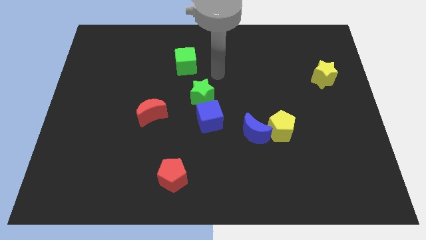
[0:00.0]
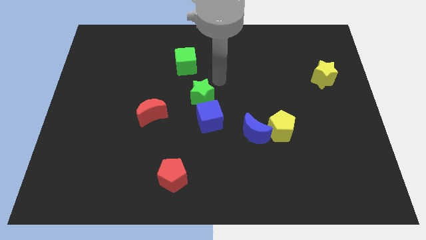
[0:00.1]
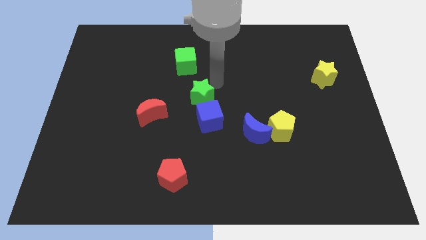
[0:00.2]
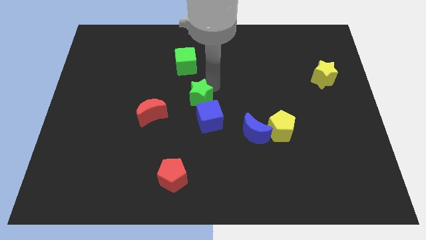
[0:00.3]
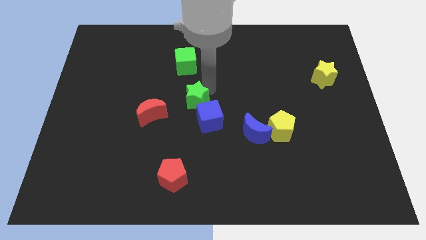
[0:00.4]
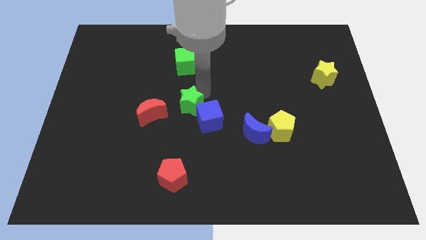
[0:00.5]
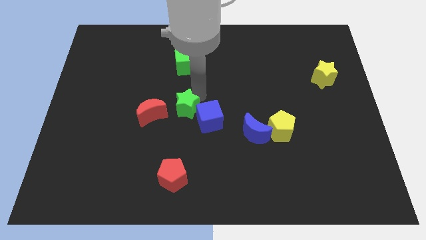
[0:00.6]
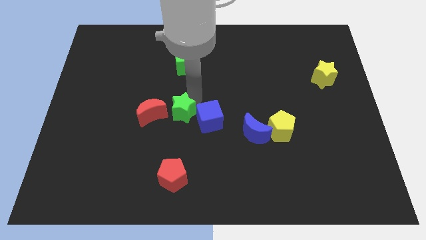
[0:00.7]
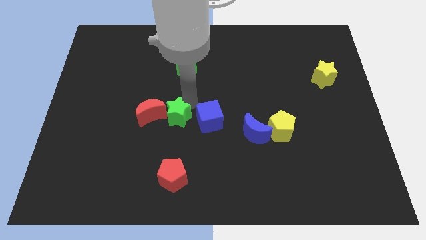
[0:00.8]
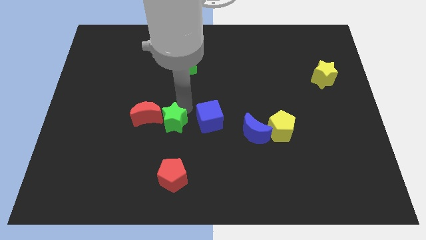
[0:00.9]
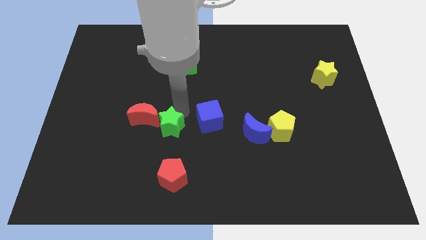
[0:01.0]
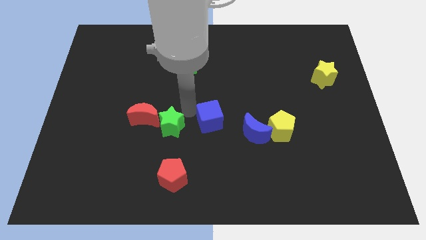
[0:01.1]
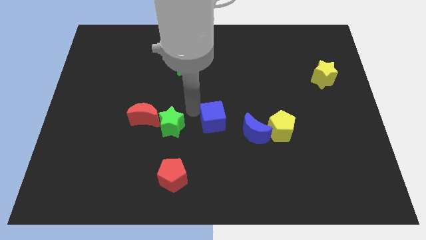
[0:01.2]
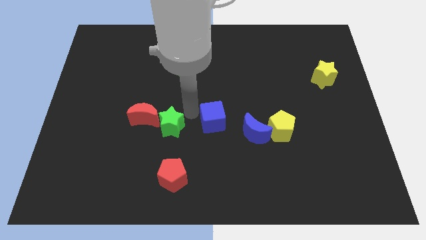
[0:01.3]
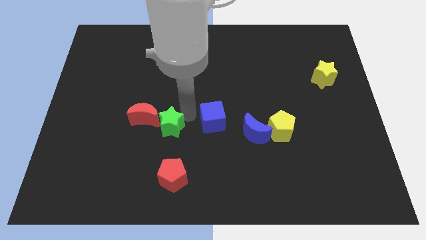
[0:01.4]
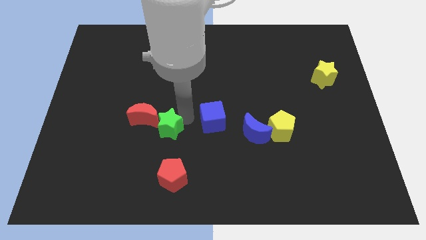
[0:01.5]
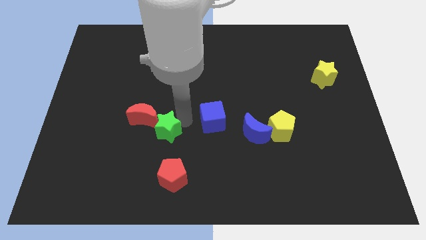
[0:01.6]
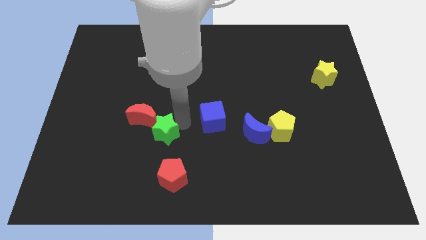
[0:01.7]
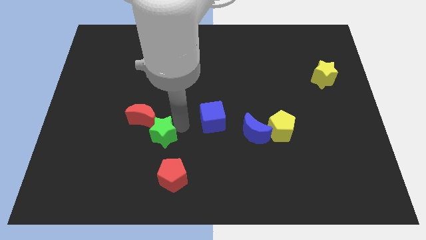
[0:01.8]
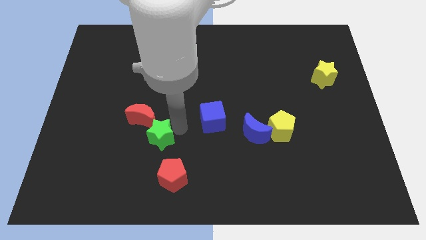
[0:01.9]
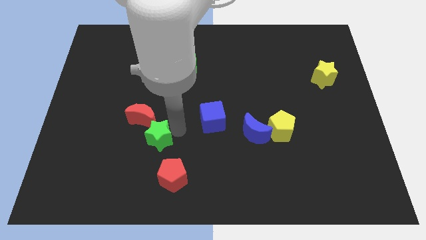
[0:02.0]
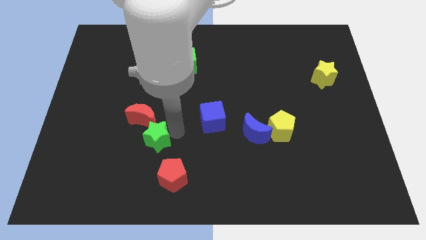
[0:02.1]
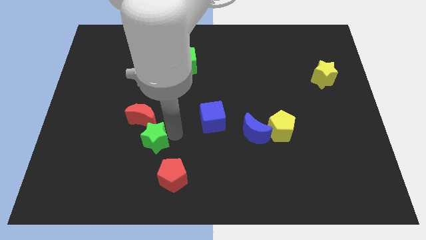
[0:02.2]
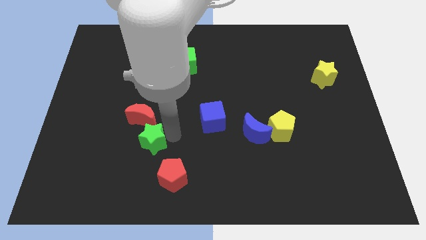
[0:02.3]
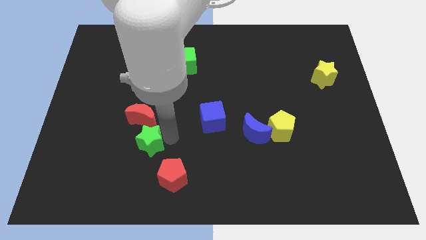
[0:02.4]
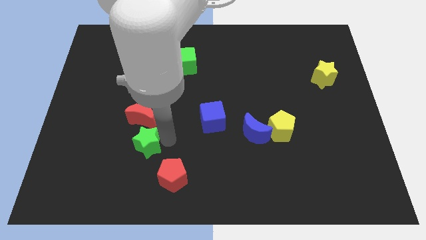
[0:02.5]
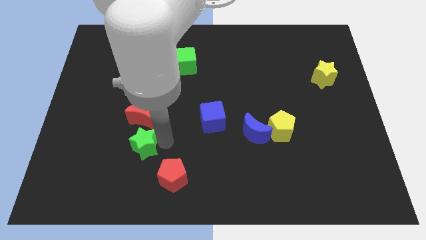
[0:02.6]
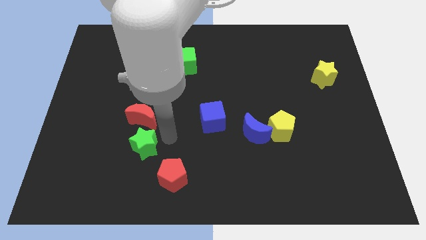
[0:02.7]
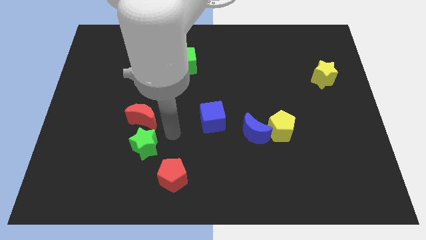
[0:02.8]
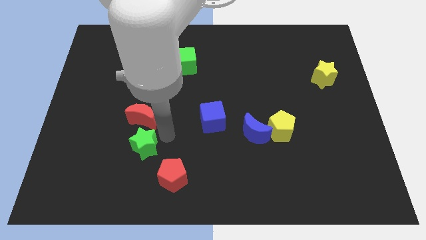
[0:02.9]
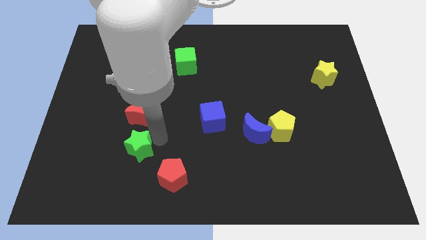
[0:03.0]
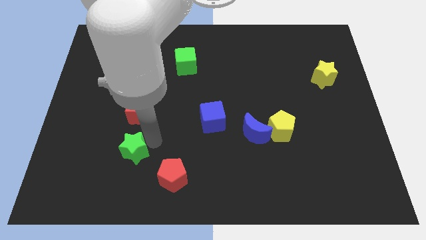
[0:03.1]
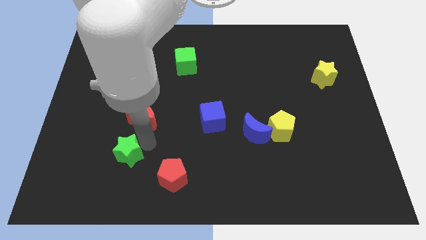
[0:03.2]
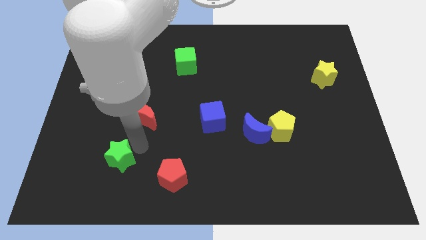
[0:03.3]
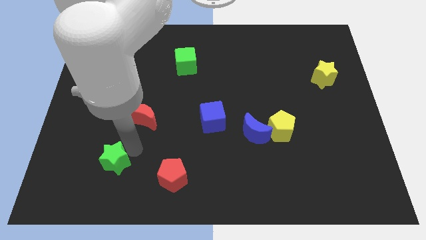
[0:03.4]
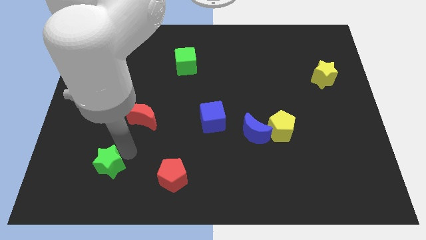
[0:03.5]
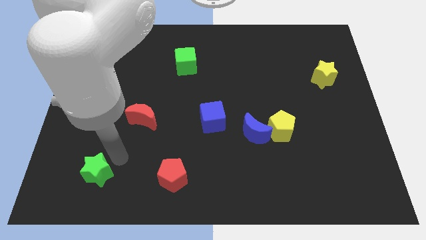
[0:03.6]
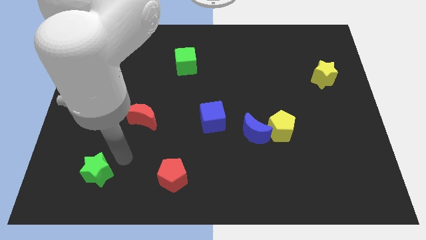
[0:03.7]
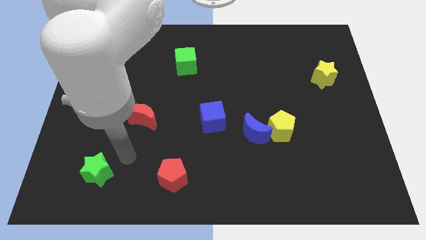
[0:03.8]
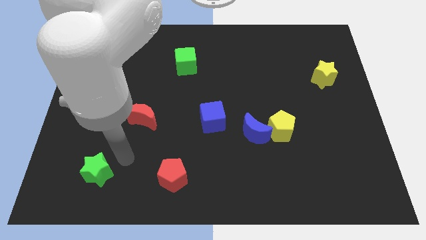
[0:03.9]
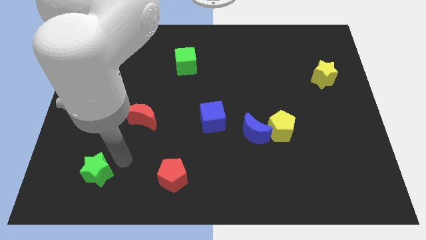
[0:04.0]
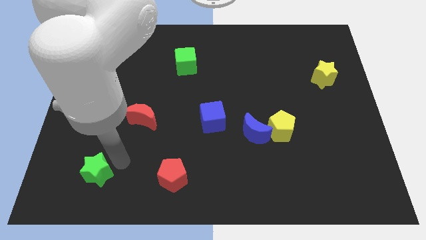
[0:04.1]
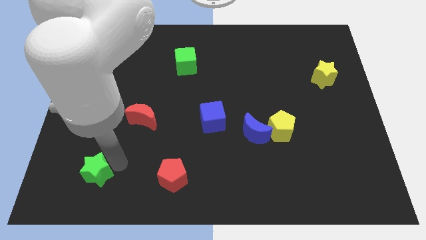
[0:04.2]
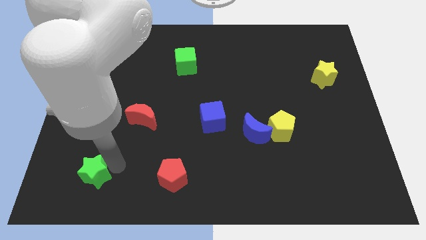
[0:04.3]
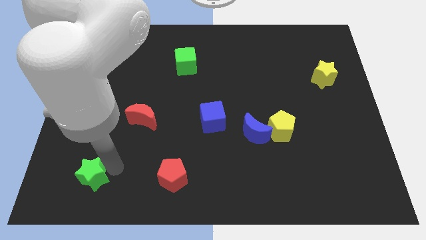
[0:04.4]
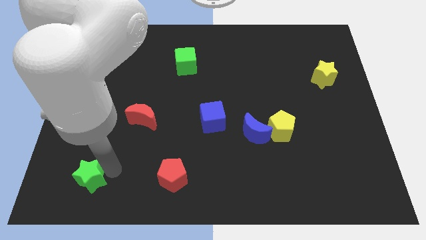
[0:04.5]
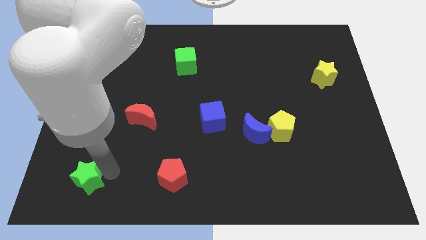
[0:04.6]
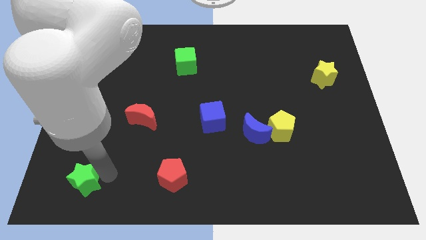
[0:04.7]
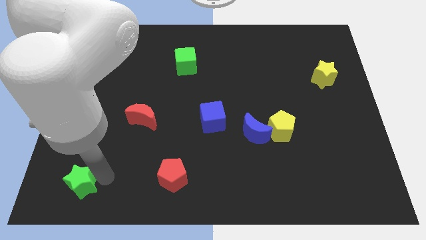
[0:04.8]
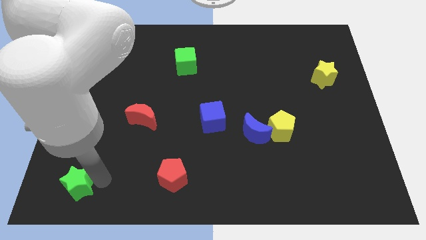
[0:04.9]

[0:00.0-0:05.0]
push the green star to the lower left corner

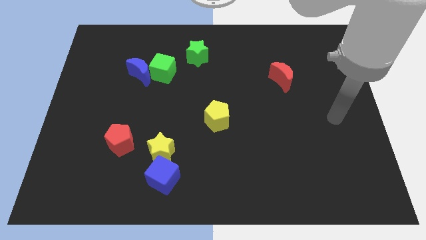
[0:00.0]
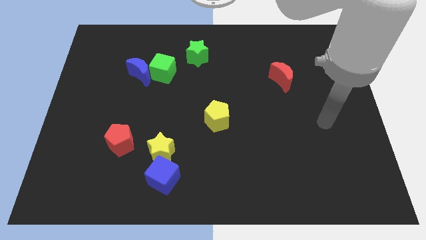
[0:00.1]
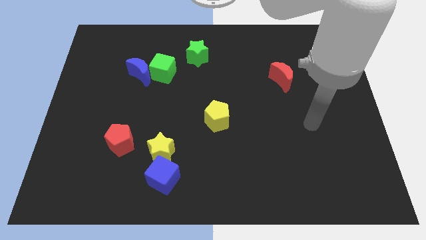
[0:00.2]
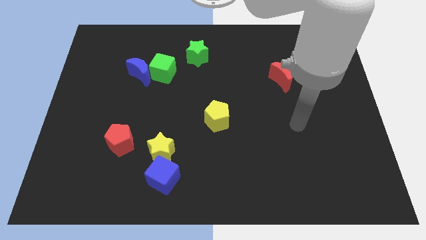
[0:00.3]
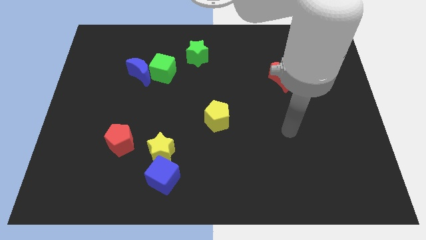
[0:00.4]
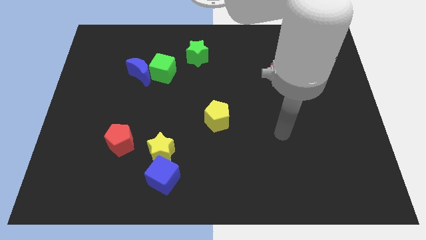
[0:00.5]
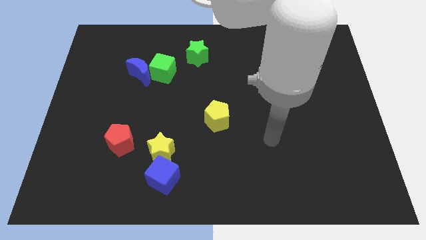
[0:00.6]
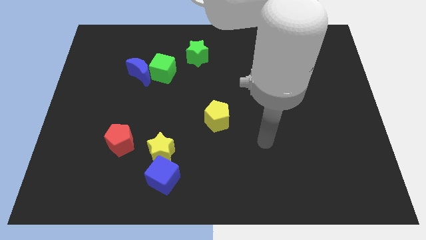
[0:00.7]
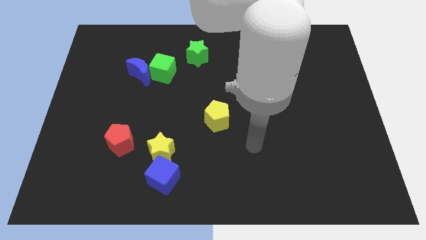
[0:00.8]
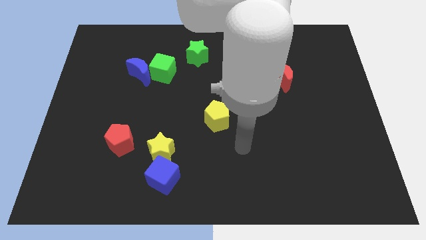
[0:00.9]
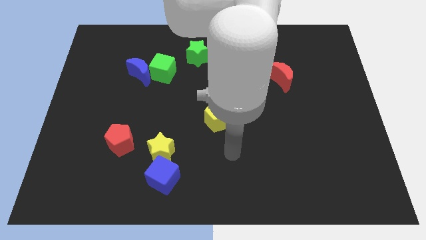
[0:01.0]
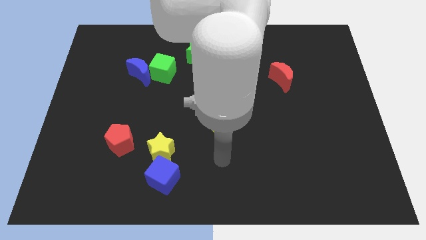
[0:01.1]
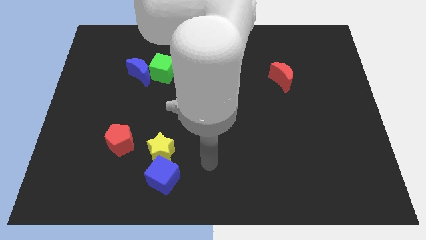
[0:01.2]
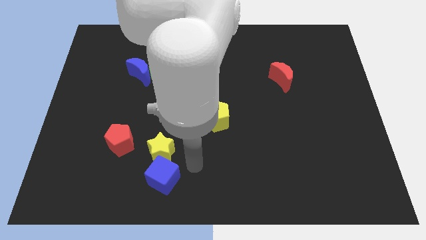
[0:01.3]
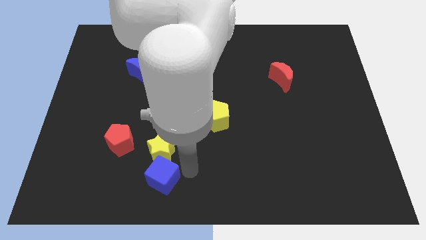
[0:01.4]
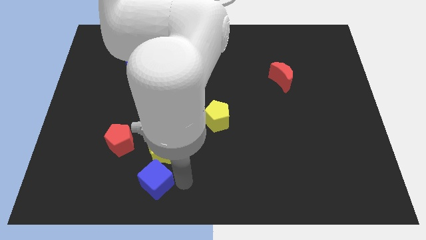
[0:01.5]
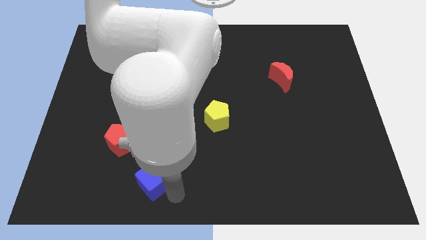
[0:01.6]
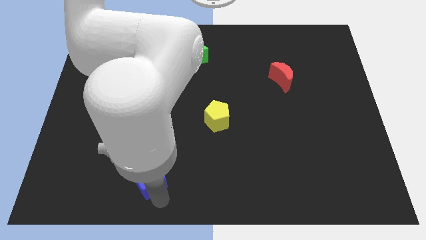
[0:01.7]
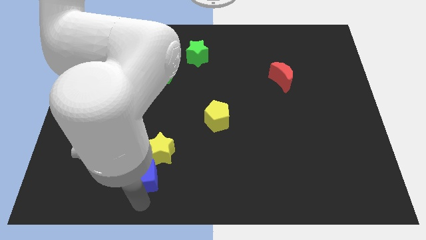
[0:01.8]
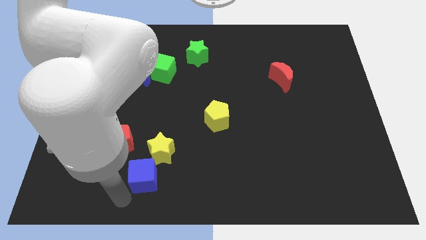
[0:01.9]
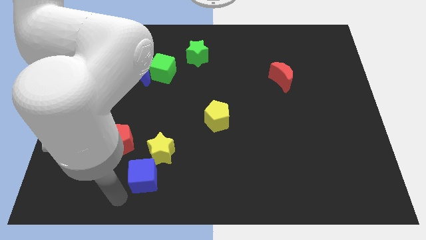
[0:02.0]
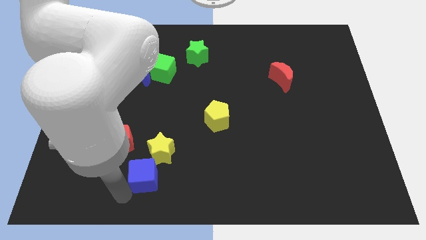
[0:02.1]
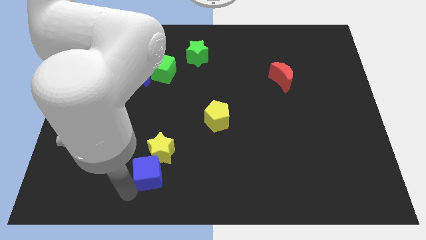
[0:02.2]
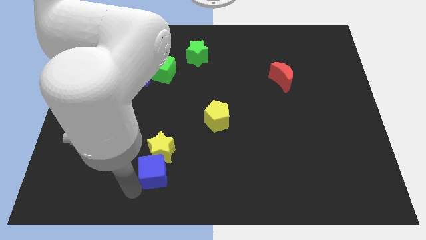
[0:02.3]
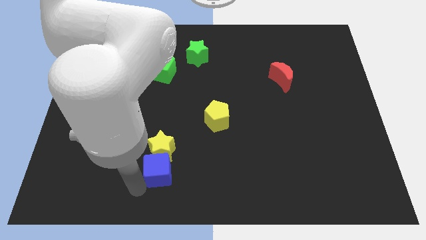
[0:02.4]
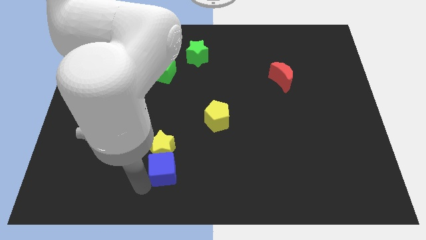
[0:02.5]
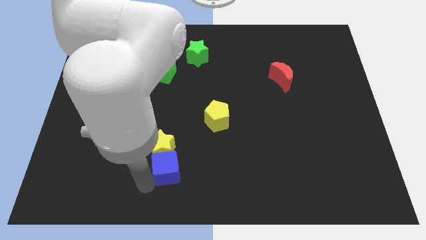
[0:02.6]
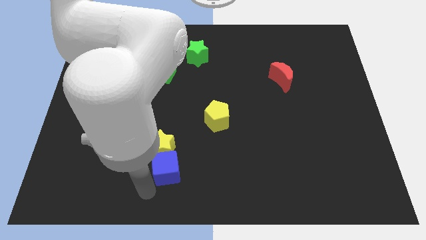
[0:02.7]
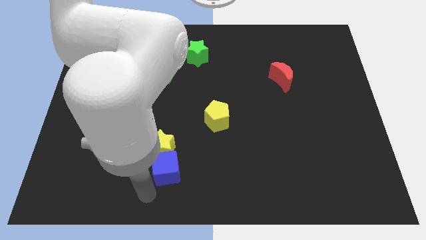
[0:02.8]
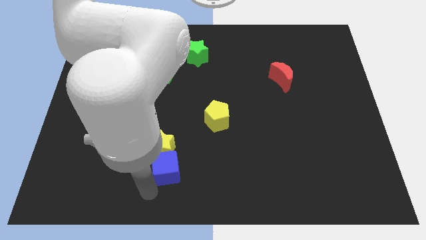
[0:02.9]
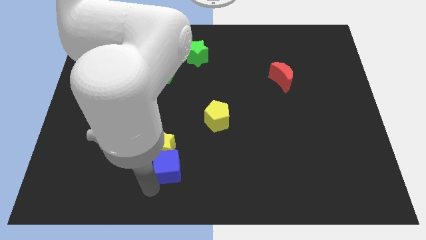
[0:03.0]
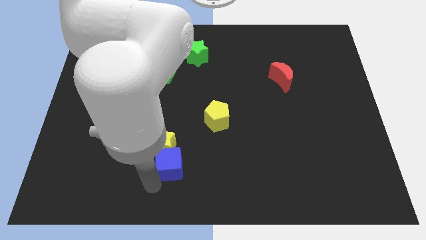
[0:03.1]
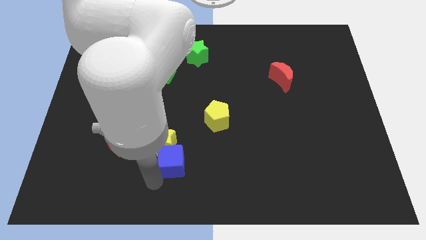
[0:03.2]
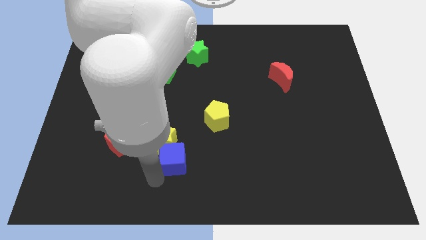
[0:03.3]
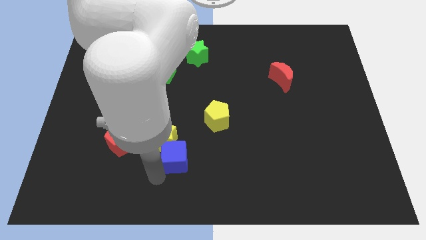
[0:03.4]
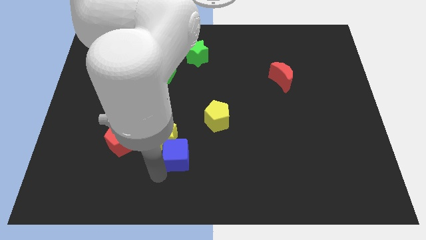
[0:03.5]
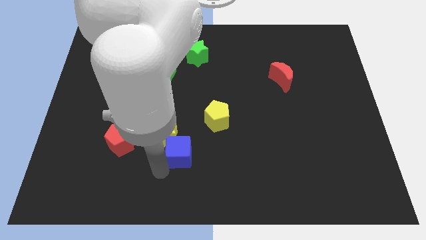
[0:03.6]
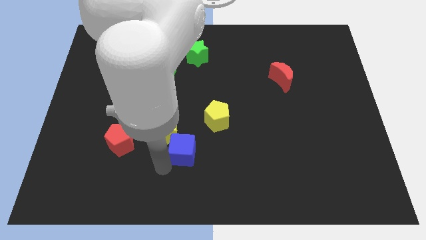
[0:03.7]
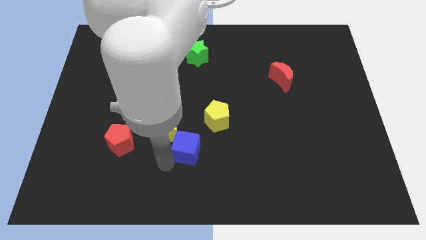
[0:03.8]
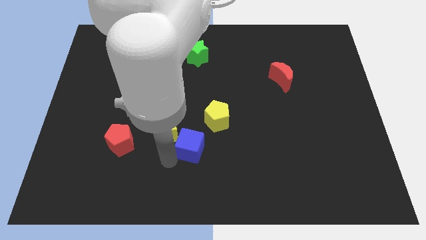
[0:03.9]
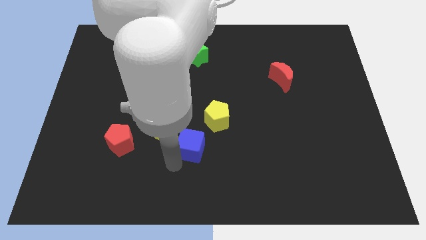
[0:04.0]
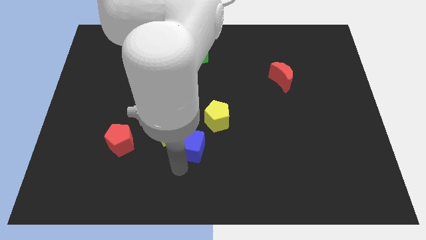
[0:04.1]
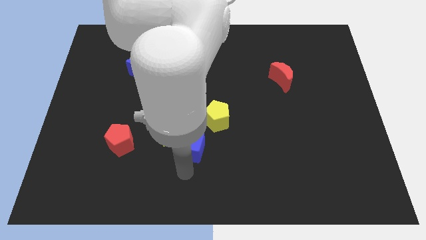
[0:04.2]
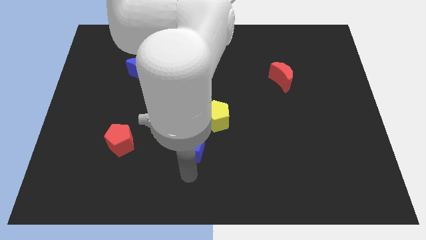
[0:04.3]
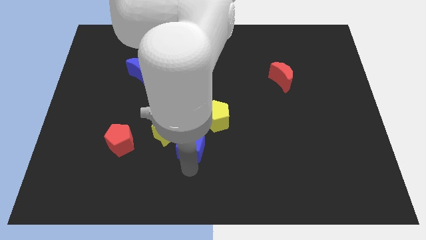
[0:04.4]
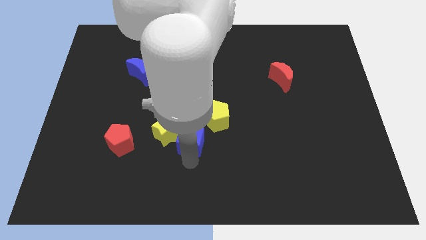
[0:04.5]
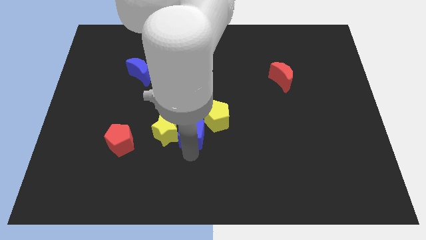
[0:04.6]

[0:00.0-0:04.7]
push the blue cube to the middle
